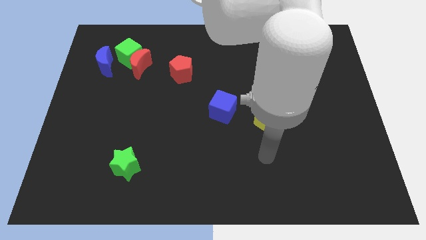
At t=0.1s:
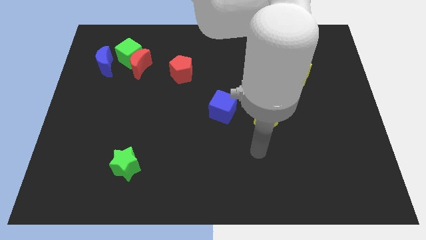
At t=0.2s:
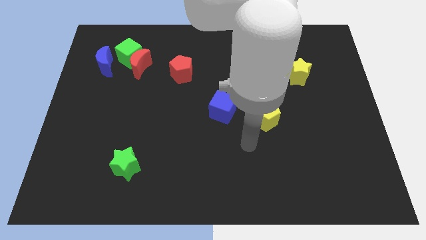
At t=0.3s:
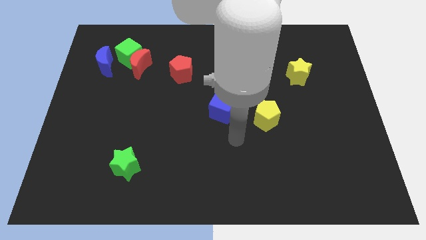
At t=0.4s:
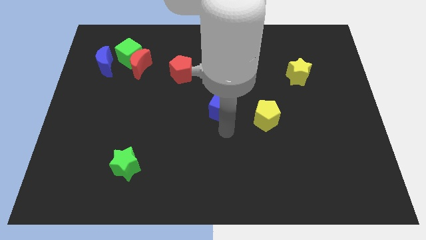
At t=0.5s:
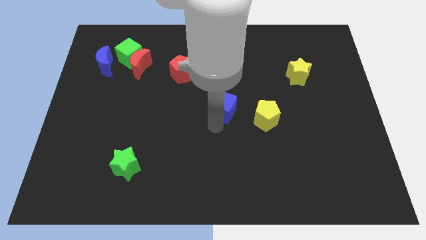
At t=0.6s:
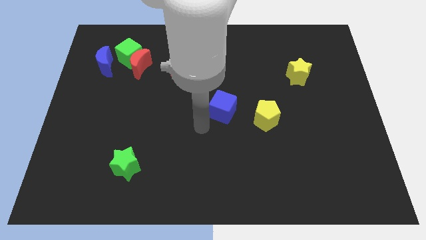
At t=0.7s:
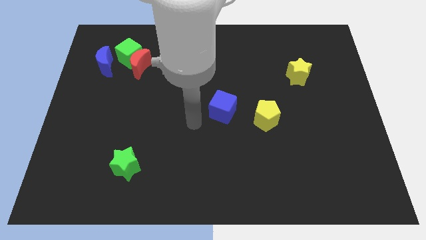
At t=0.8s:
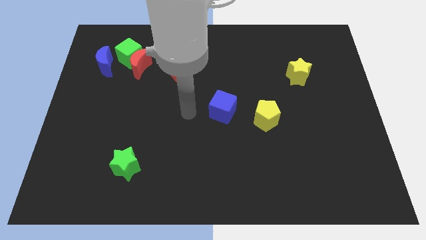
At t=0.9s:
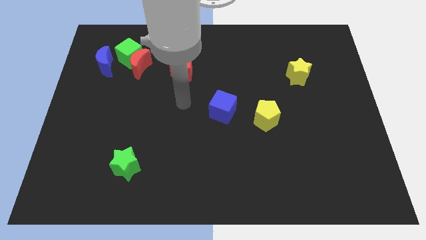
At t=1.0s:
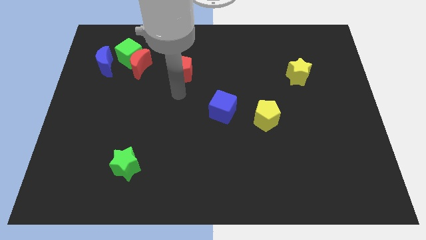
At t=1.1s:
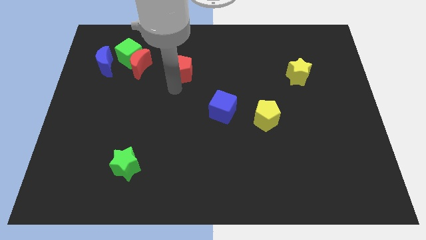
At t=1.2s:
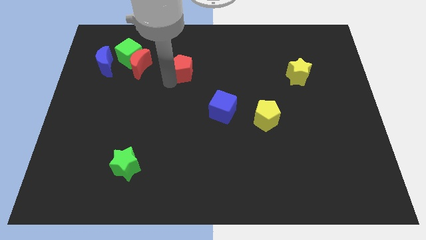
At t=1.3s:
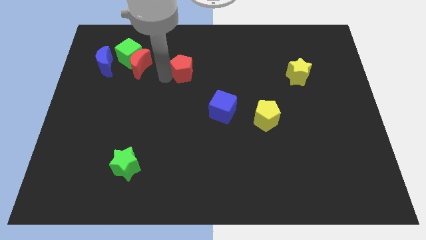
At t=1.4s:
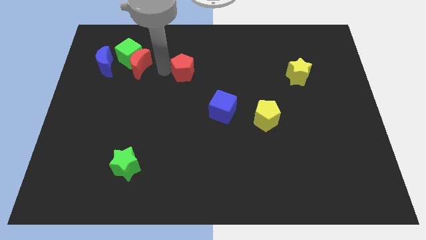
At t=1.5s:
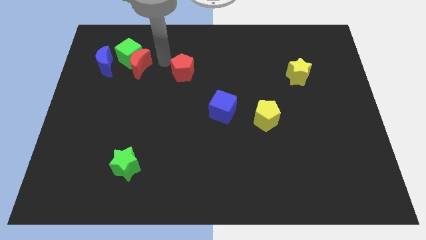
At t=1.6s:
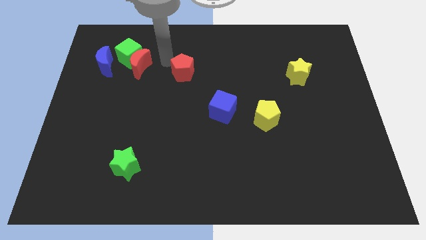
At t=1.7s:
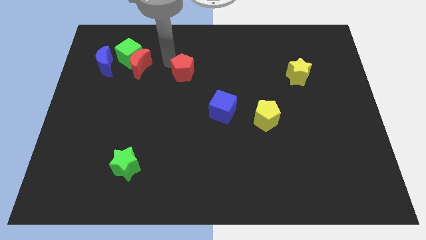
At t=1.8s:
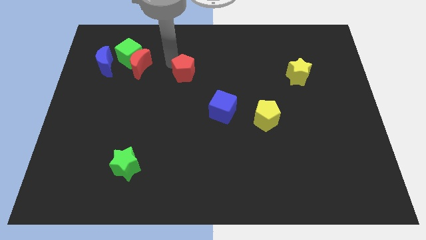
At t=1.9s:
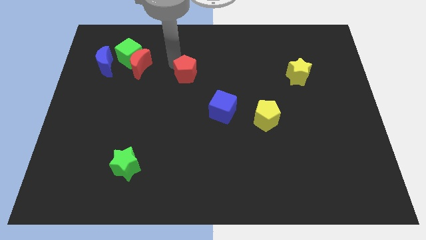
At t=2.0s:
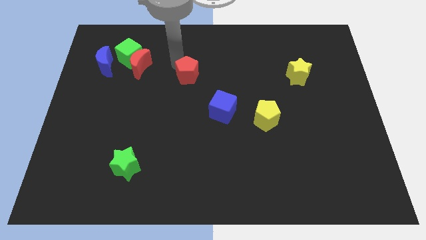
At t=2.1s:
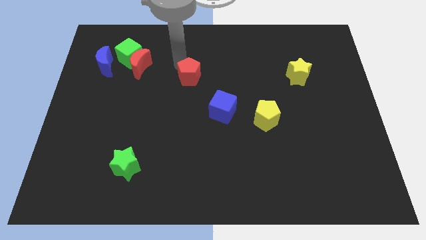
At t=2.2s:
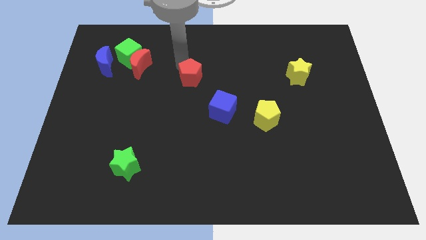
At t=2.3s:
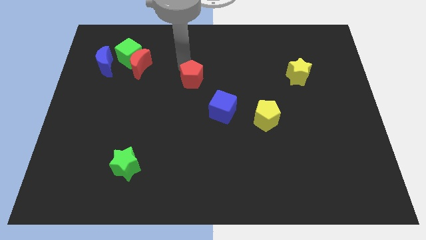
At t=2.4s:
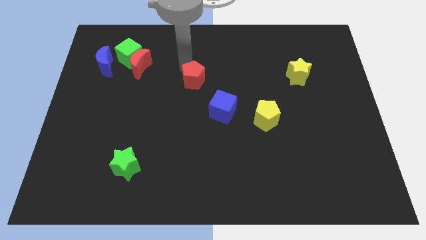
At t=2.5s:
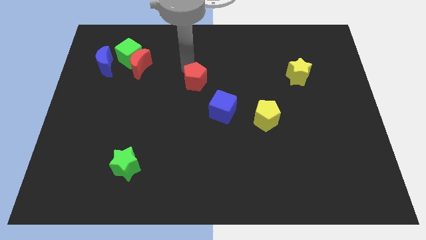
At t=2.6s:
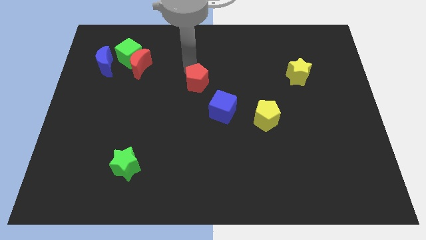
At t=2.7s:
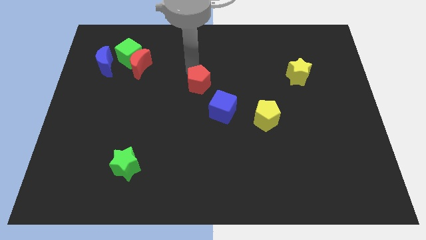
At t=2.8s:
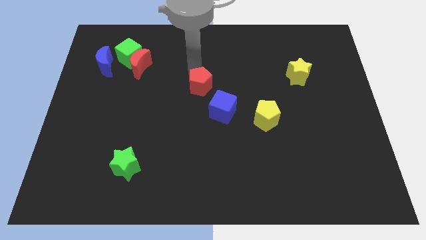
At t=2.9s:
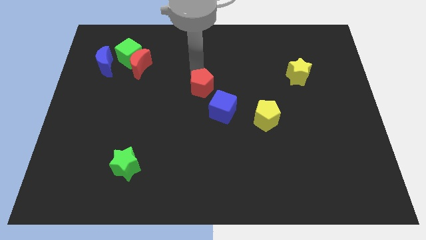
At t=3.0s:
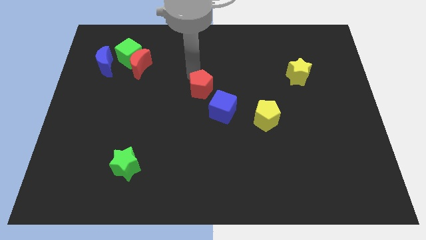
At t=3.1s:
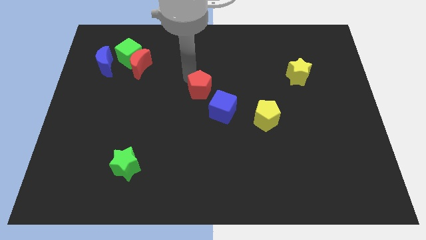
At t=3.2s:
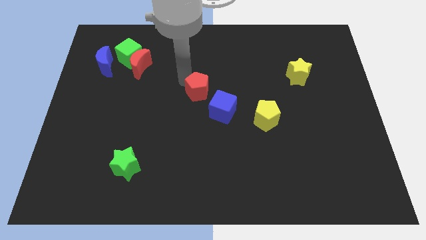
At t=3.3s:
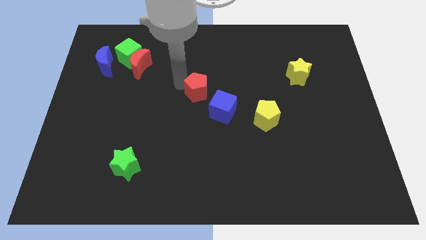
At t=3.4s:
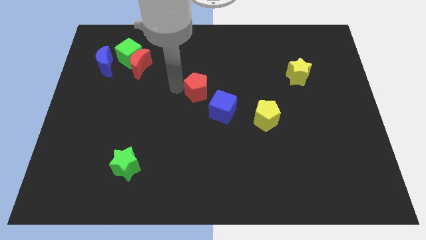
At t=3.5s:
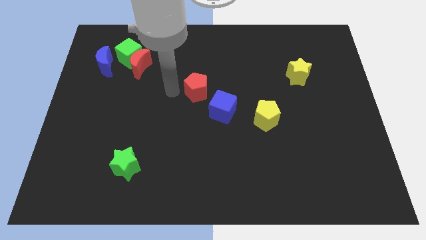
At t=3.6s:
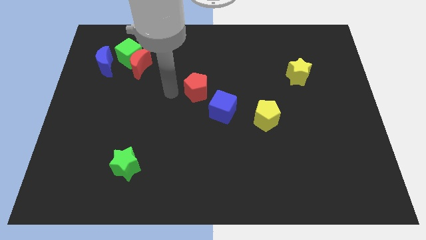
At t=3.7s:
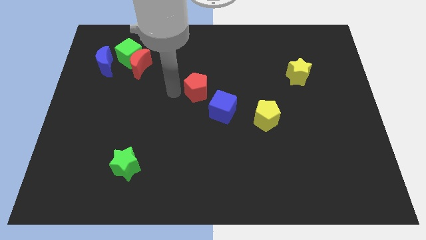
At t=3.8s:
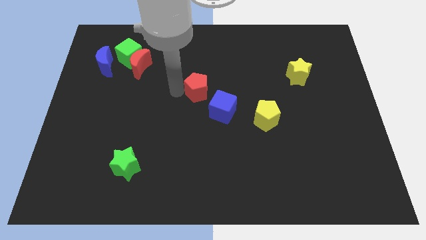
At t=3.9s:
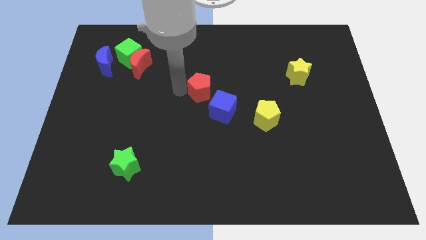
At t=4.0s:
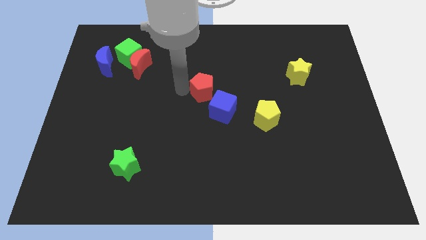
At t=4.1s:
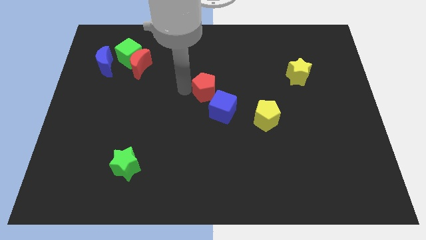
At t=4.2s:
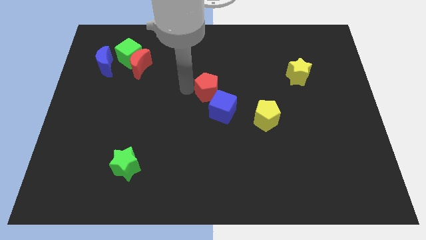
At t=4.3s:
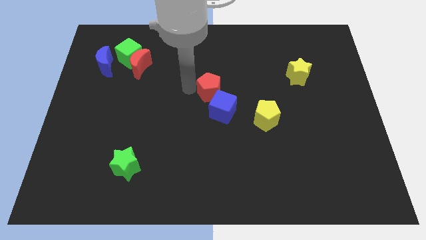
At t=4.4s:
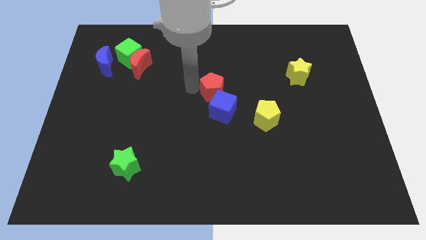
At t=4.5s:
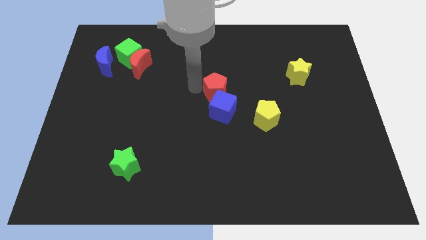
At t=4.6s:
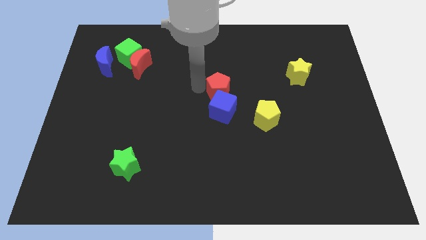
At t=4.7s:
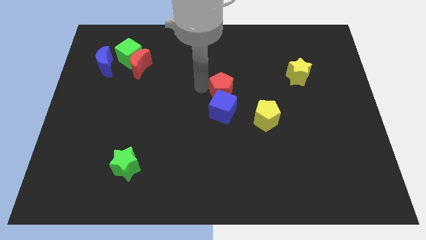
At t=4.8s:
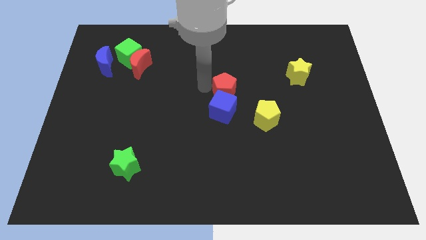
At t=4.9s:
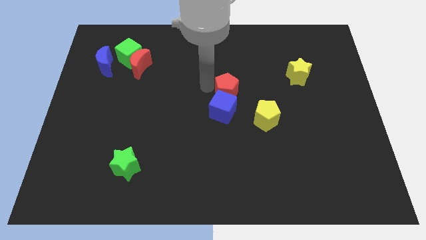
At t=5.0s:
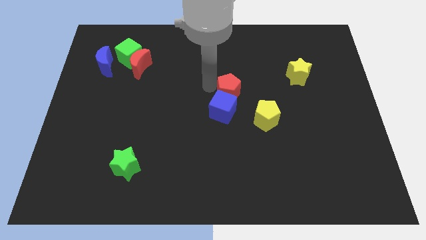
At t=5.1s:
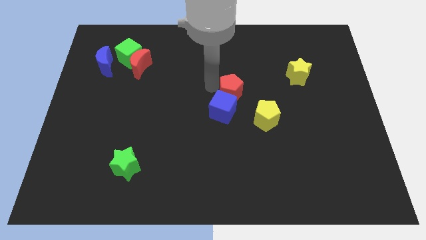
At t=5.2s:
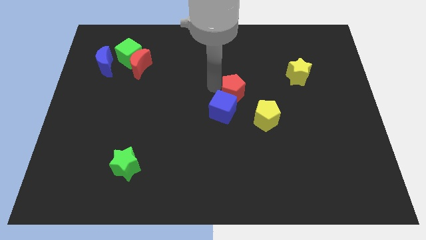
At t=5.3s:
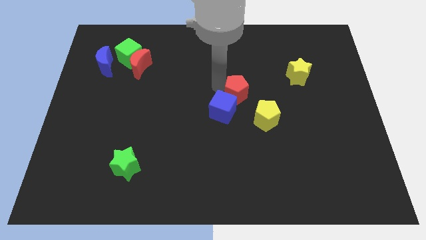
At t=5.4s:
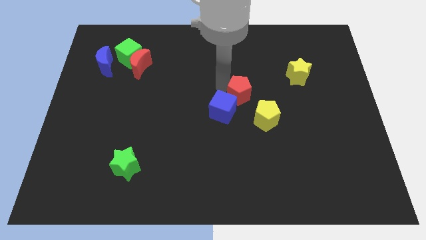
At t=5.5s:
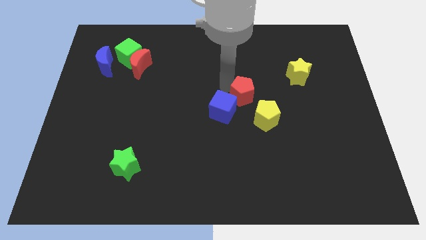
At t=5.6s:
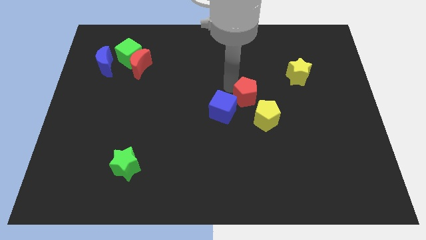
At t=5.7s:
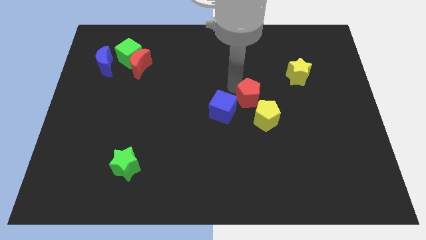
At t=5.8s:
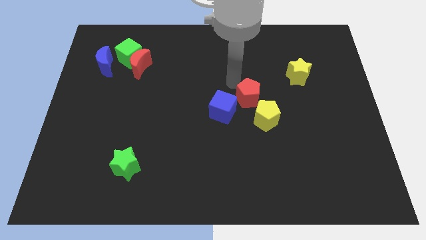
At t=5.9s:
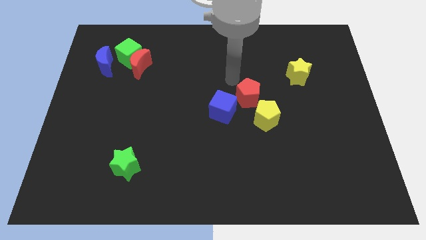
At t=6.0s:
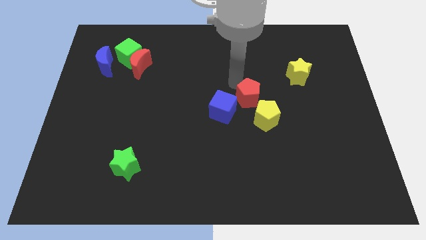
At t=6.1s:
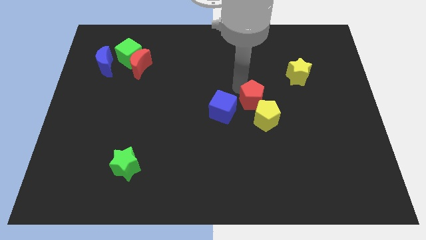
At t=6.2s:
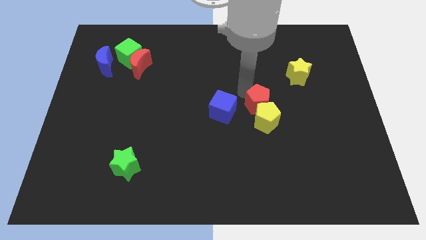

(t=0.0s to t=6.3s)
slide the red pentagon next to the yellow pentagon

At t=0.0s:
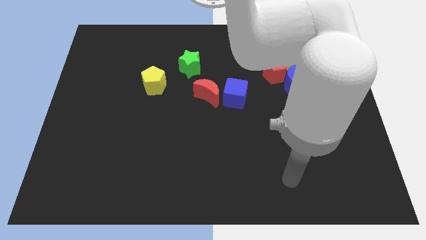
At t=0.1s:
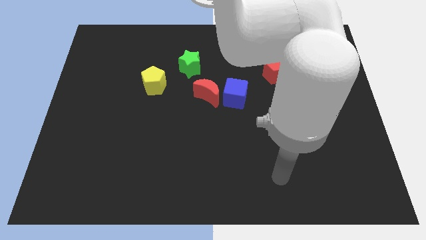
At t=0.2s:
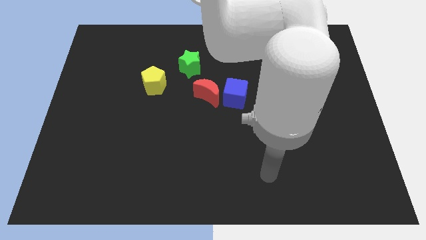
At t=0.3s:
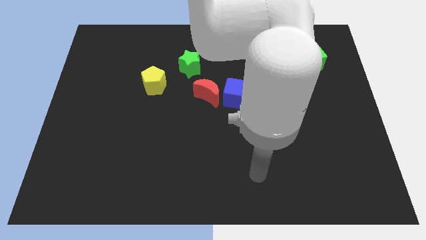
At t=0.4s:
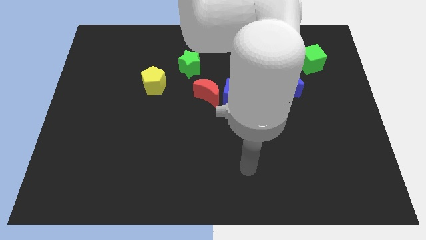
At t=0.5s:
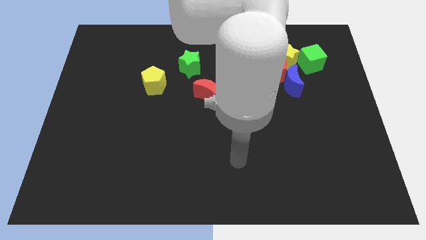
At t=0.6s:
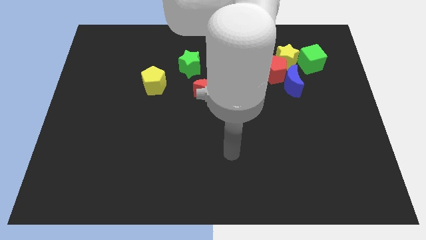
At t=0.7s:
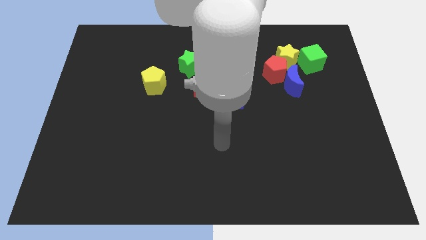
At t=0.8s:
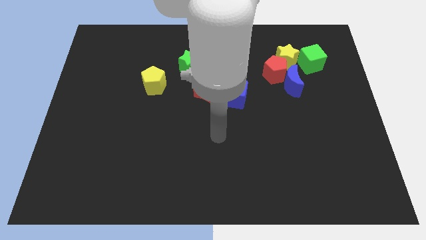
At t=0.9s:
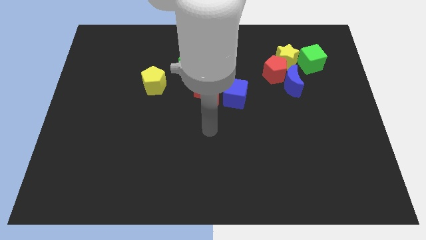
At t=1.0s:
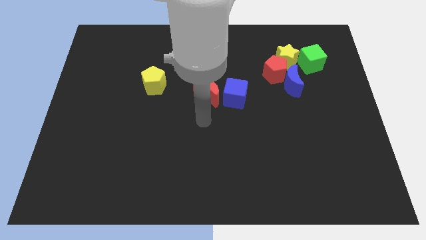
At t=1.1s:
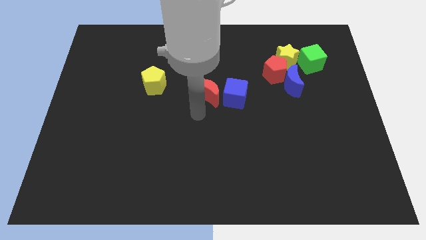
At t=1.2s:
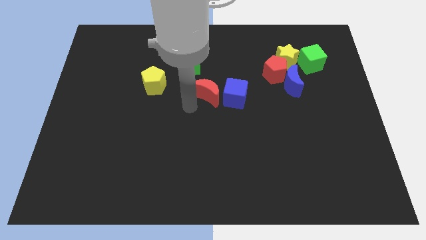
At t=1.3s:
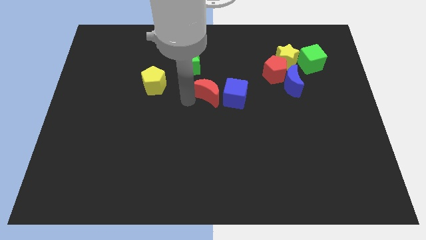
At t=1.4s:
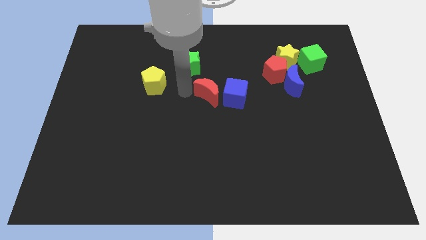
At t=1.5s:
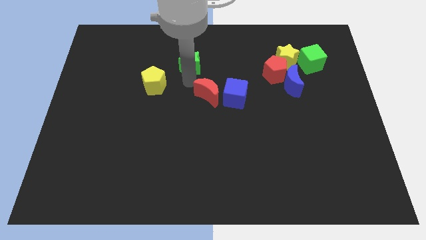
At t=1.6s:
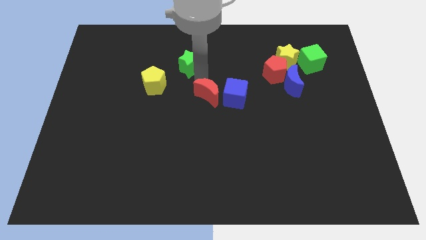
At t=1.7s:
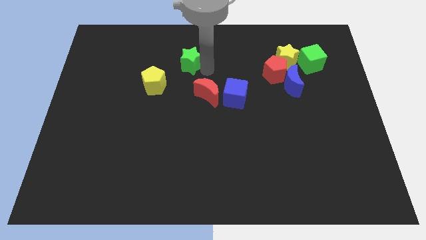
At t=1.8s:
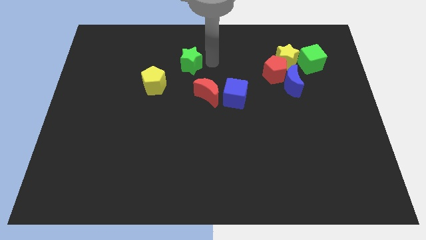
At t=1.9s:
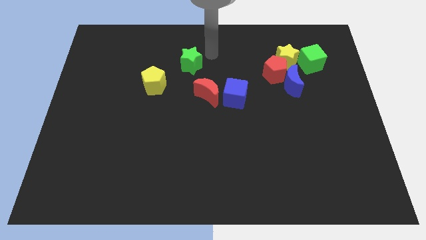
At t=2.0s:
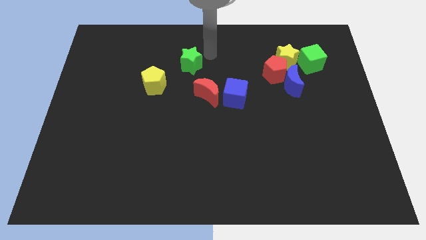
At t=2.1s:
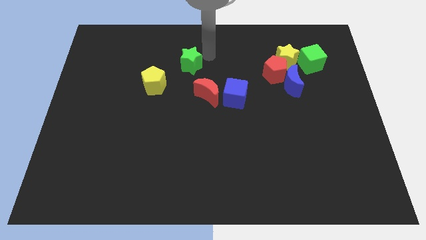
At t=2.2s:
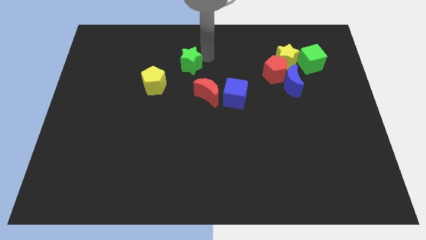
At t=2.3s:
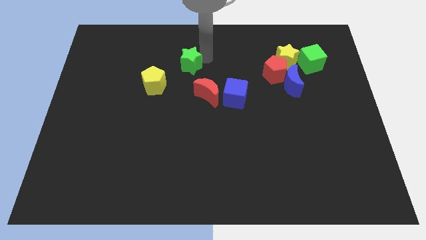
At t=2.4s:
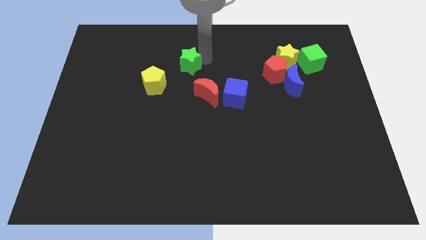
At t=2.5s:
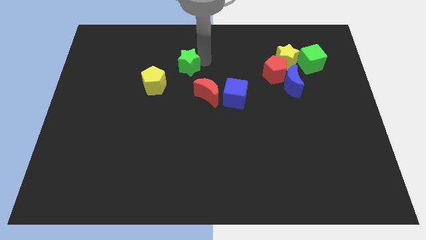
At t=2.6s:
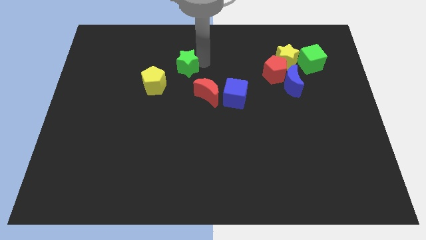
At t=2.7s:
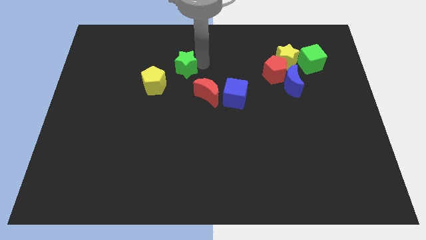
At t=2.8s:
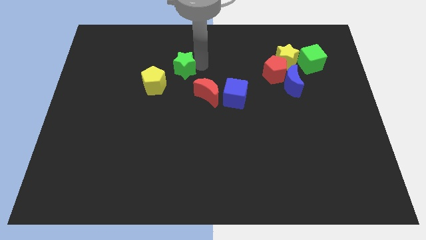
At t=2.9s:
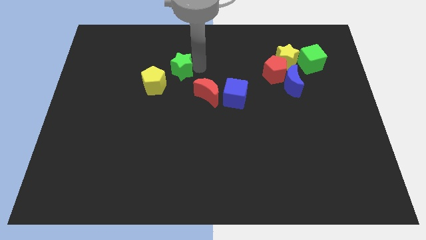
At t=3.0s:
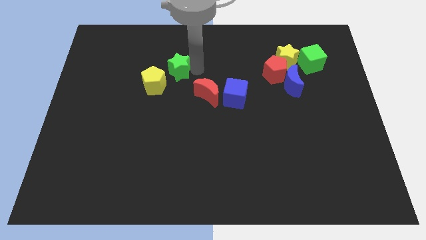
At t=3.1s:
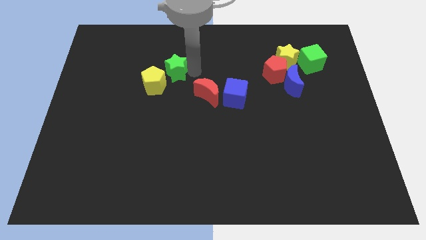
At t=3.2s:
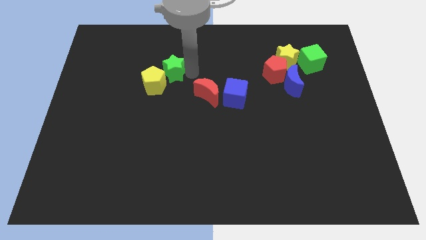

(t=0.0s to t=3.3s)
move the green star to the yellow pentagon
